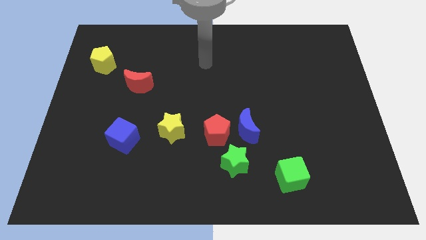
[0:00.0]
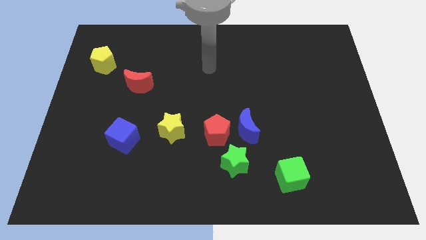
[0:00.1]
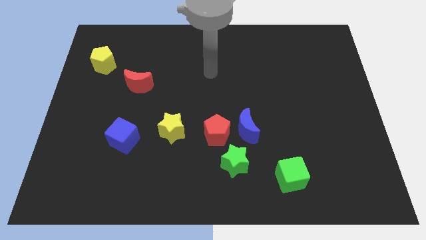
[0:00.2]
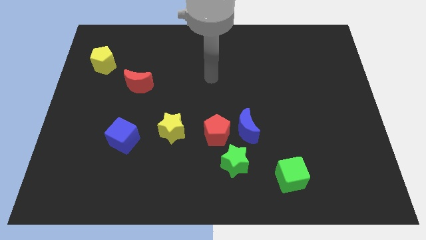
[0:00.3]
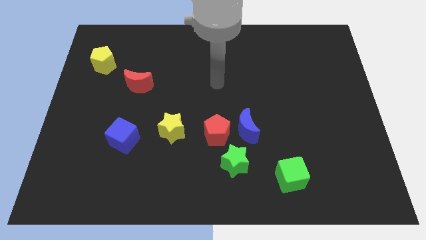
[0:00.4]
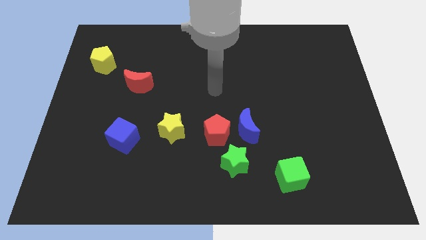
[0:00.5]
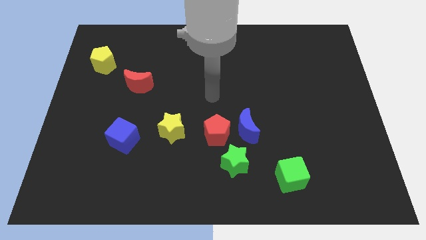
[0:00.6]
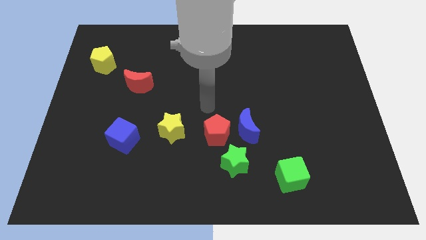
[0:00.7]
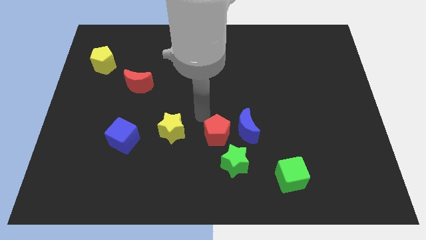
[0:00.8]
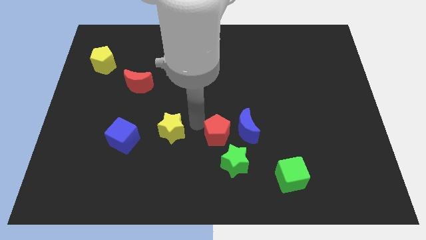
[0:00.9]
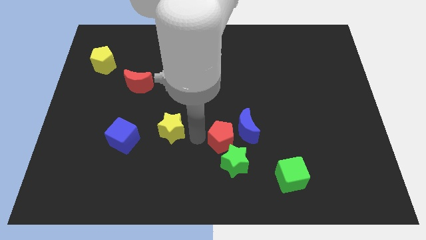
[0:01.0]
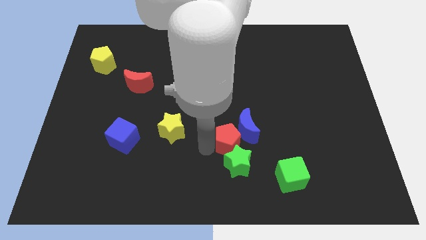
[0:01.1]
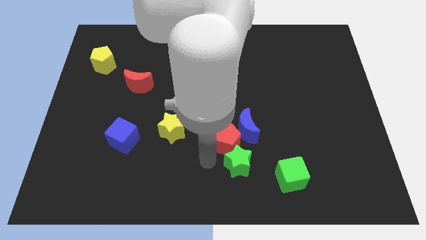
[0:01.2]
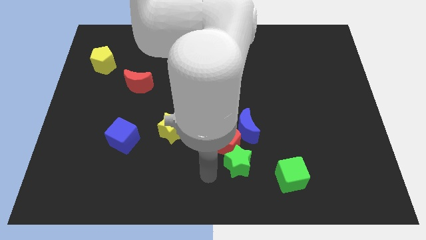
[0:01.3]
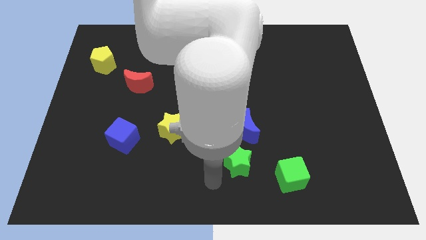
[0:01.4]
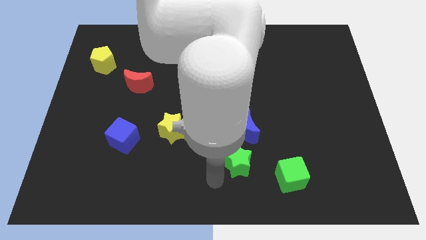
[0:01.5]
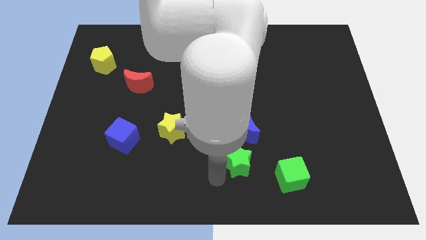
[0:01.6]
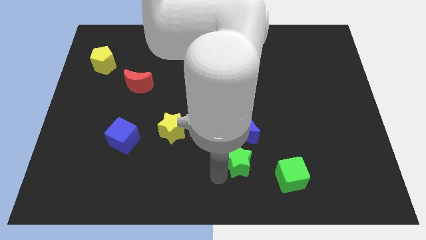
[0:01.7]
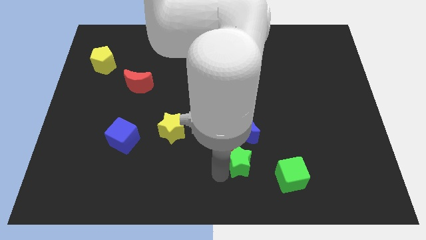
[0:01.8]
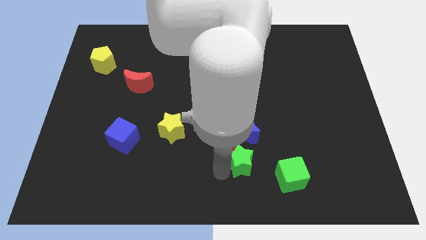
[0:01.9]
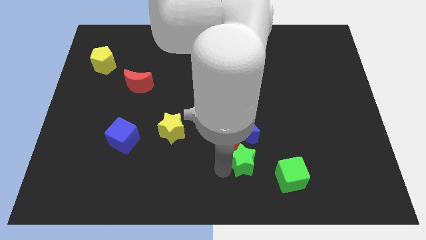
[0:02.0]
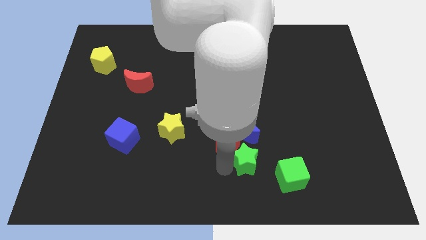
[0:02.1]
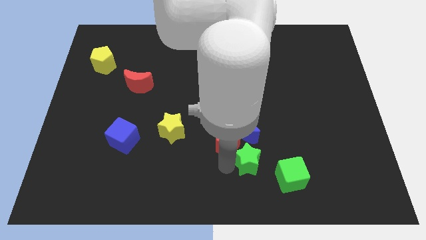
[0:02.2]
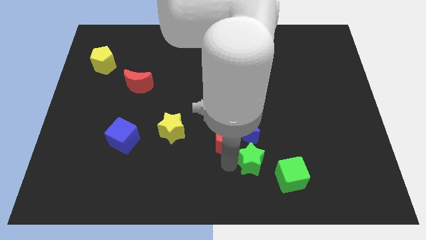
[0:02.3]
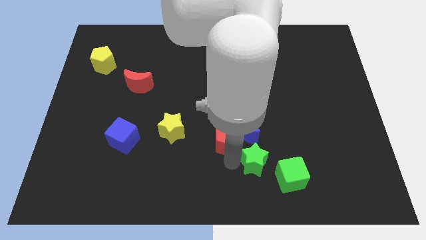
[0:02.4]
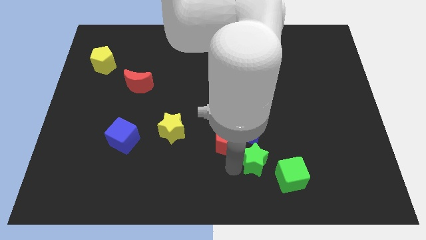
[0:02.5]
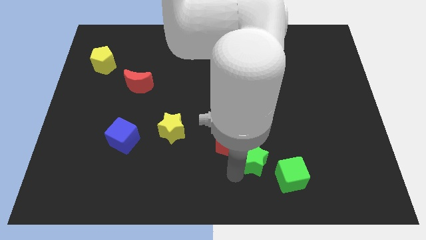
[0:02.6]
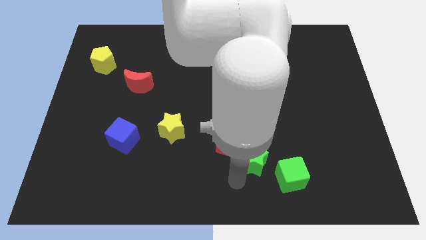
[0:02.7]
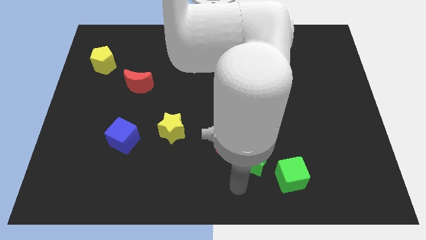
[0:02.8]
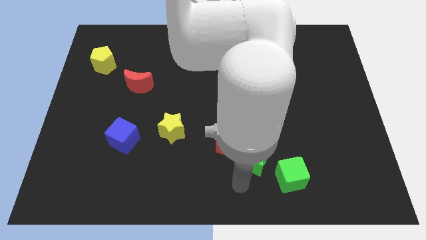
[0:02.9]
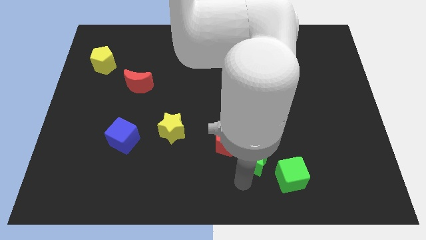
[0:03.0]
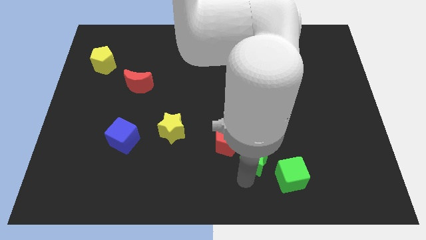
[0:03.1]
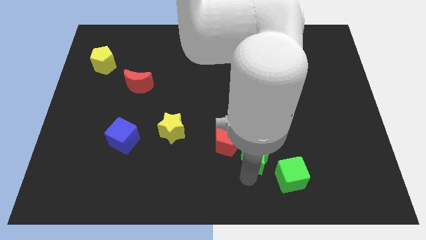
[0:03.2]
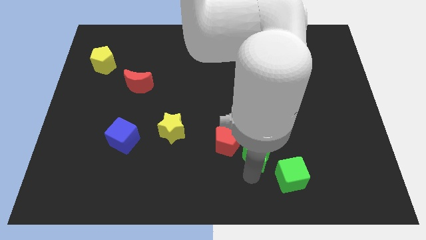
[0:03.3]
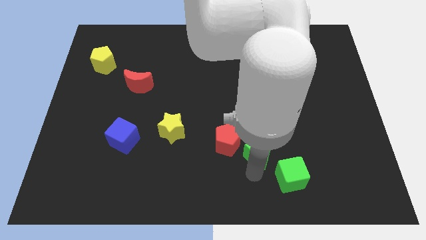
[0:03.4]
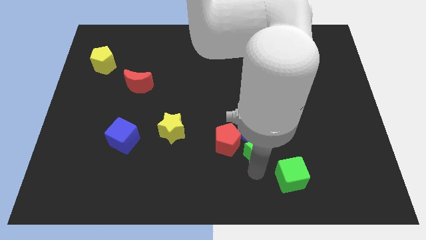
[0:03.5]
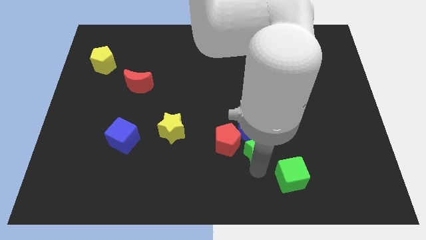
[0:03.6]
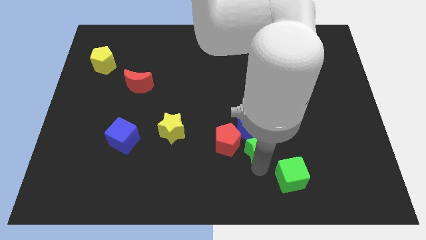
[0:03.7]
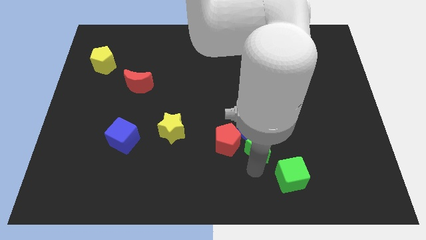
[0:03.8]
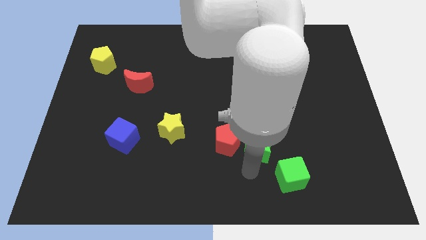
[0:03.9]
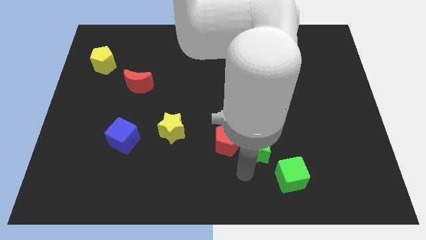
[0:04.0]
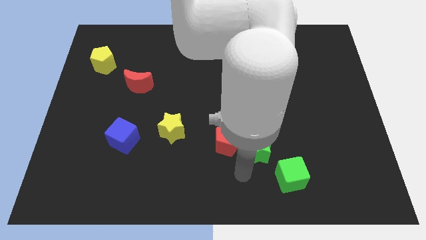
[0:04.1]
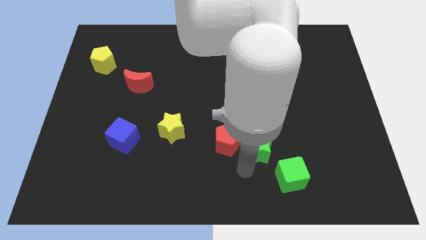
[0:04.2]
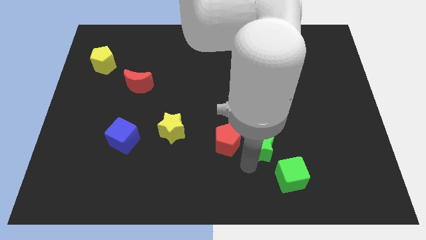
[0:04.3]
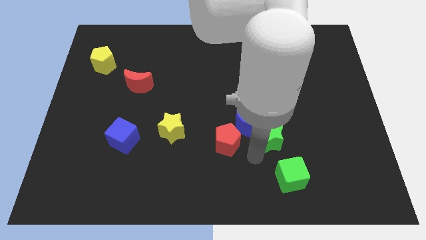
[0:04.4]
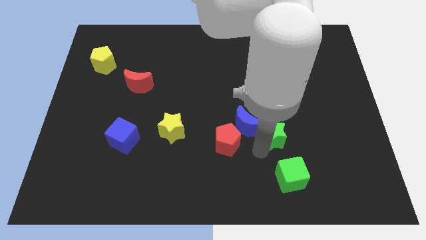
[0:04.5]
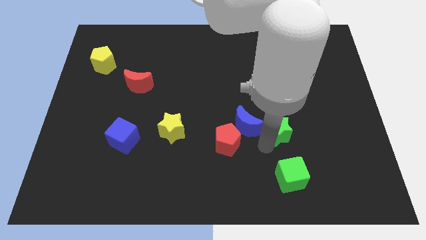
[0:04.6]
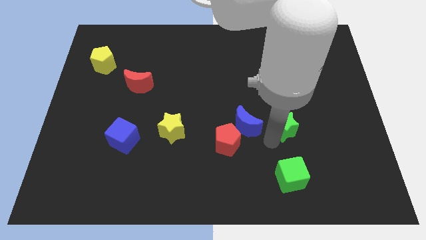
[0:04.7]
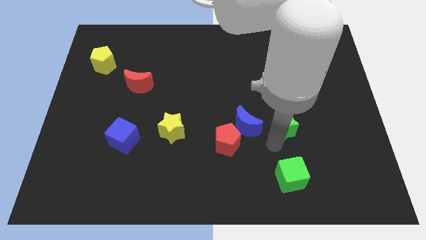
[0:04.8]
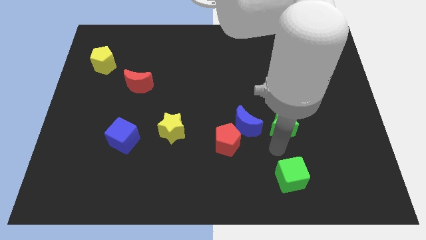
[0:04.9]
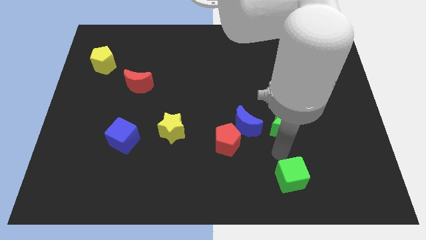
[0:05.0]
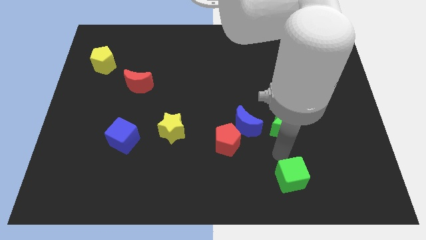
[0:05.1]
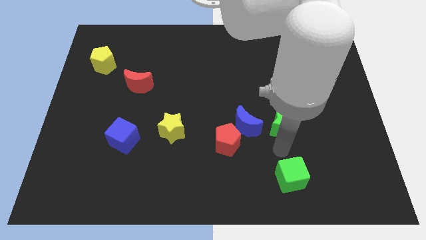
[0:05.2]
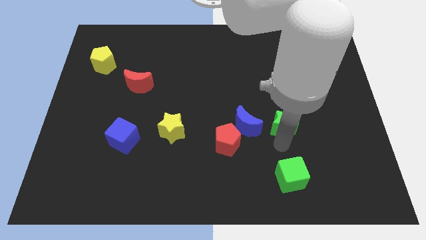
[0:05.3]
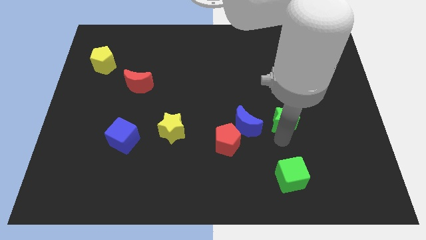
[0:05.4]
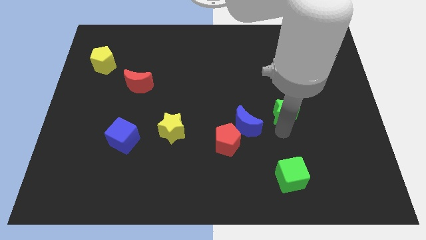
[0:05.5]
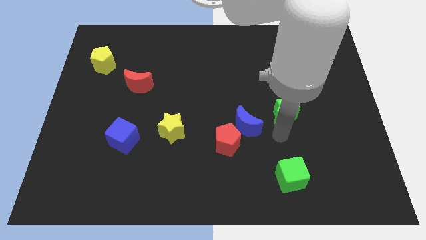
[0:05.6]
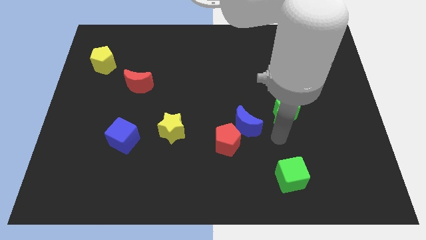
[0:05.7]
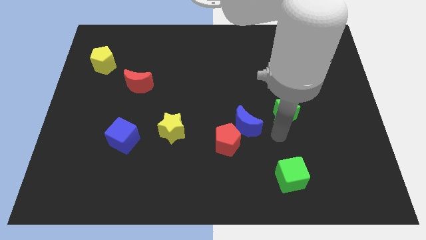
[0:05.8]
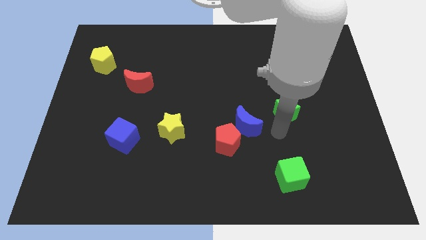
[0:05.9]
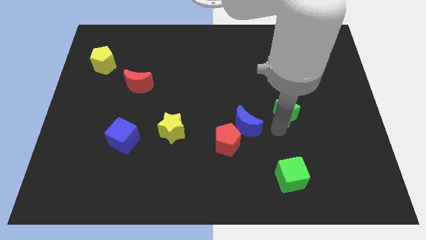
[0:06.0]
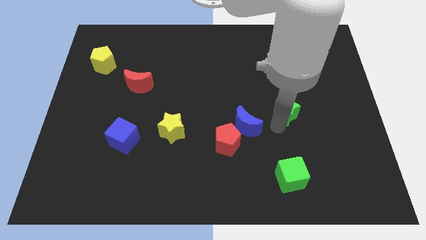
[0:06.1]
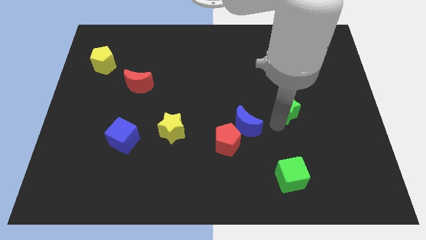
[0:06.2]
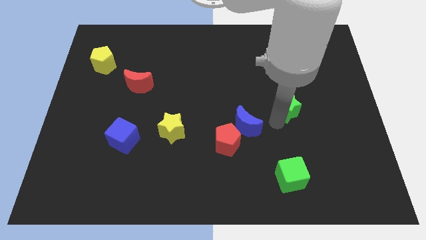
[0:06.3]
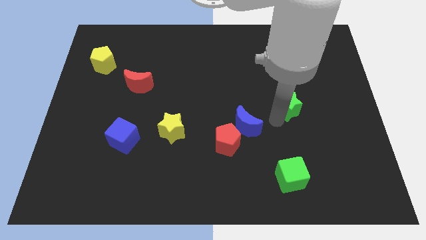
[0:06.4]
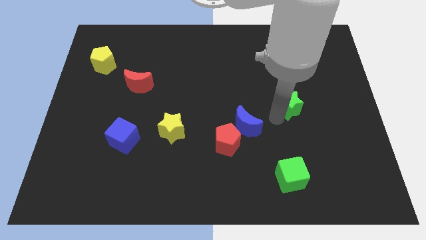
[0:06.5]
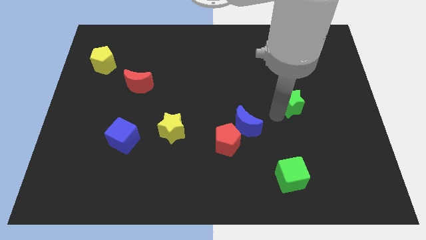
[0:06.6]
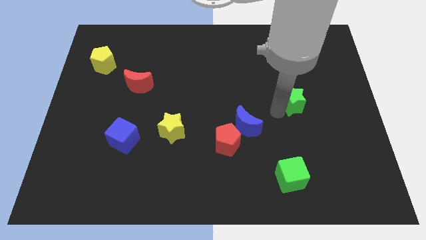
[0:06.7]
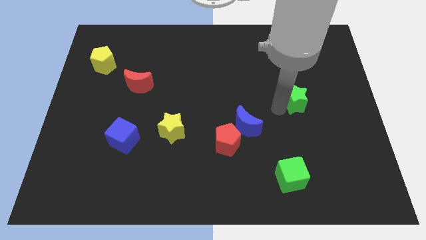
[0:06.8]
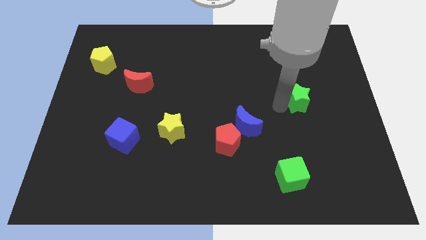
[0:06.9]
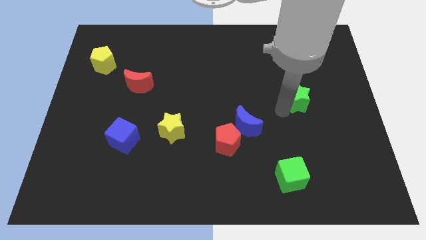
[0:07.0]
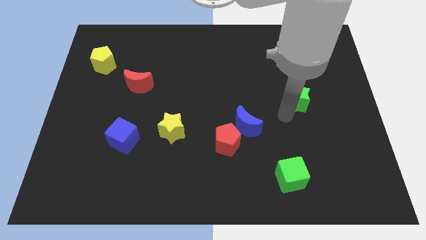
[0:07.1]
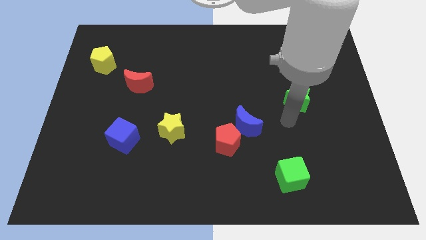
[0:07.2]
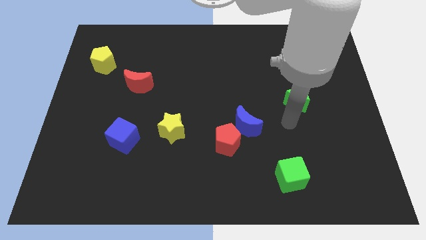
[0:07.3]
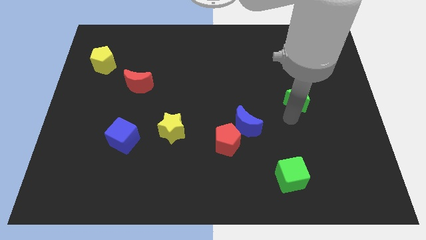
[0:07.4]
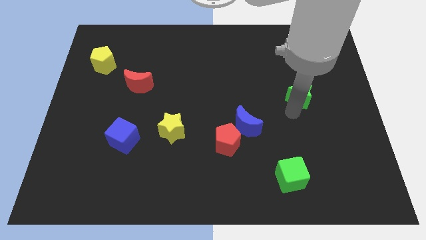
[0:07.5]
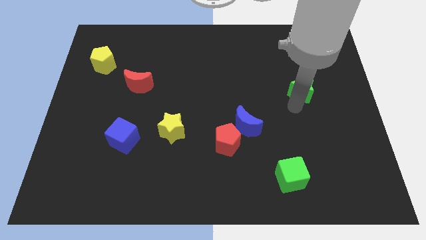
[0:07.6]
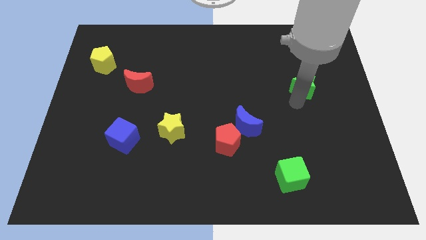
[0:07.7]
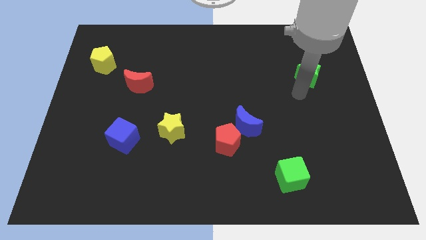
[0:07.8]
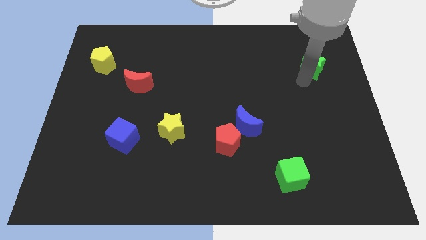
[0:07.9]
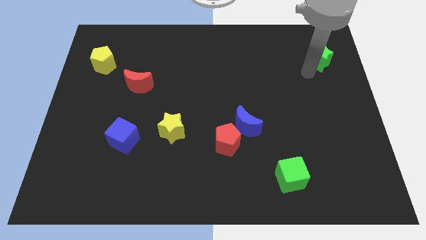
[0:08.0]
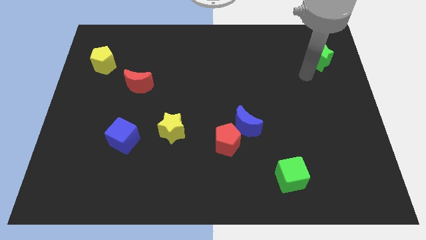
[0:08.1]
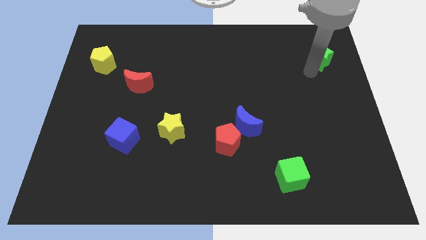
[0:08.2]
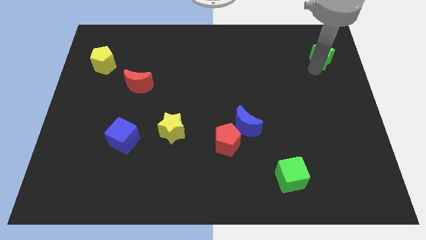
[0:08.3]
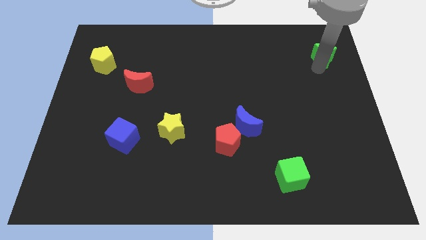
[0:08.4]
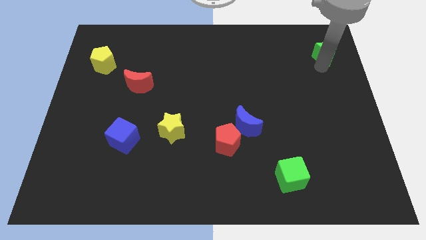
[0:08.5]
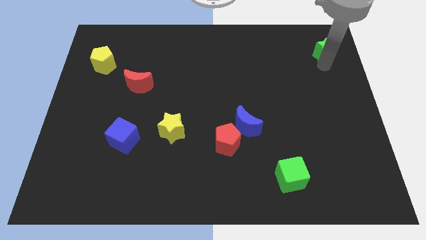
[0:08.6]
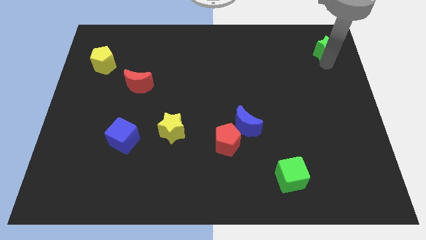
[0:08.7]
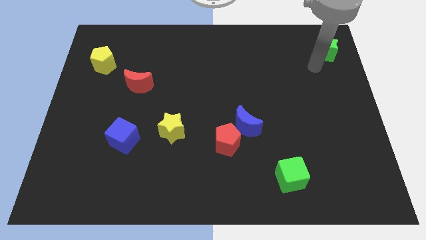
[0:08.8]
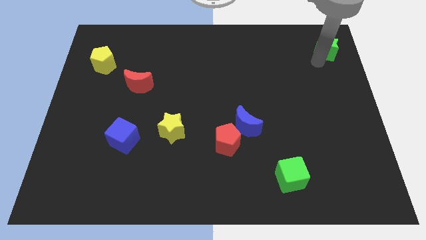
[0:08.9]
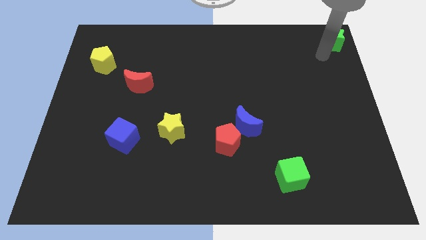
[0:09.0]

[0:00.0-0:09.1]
move the green star to the top right
